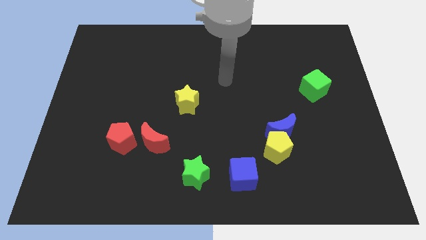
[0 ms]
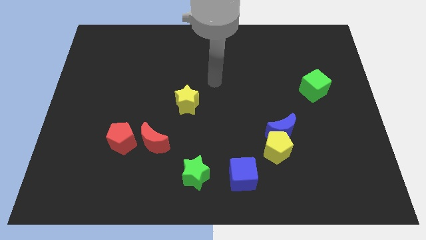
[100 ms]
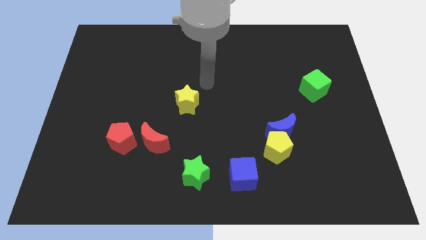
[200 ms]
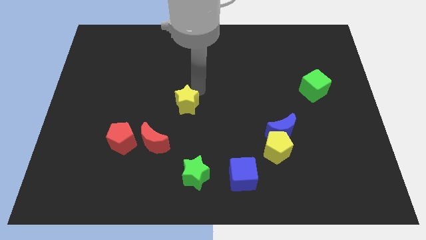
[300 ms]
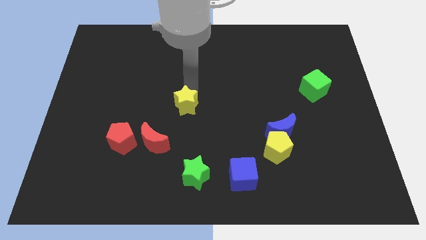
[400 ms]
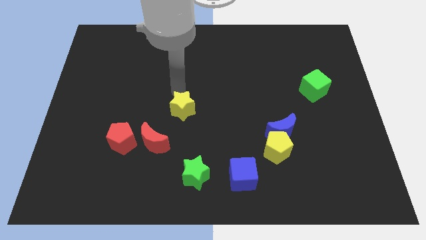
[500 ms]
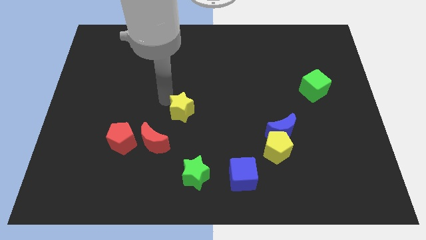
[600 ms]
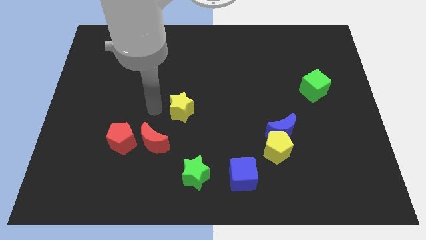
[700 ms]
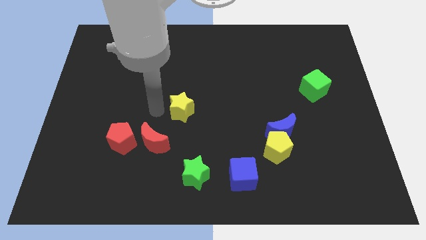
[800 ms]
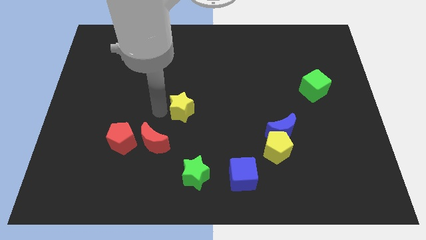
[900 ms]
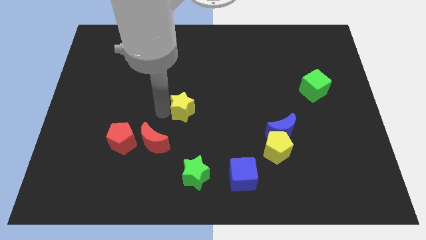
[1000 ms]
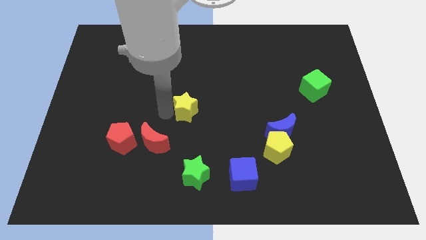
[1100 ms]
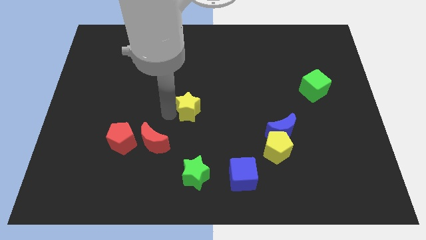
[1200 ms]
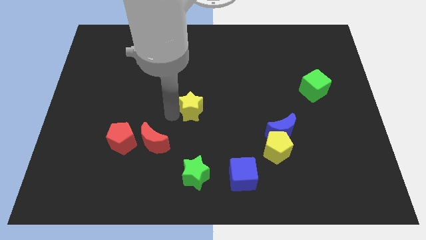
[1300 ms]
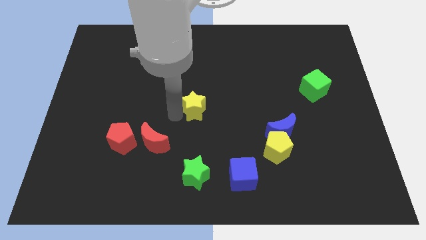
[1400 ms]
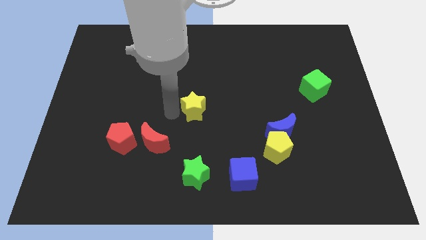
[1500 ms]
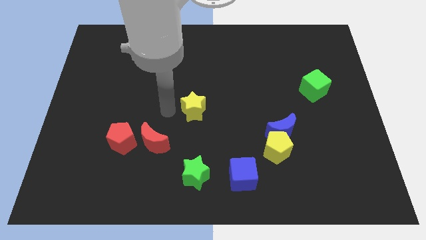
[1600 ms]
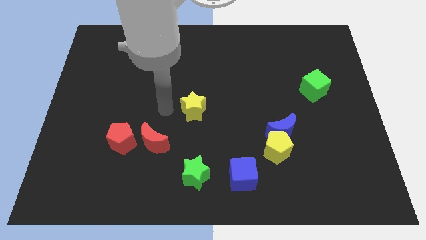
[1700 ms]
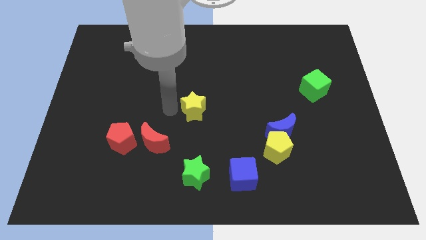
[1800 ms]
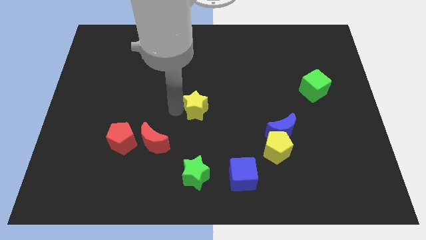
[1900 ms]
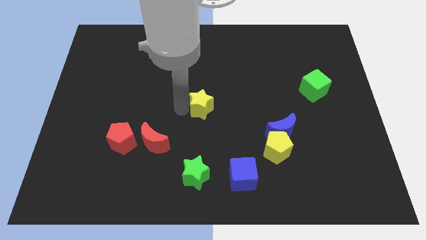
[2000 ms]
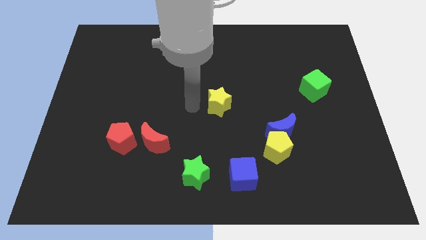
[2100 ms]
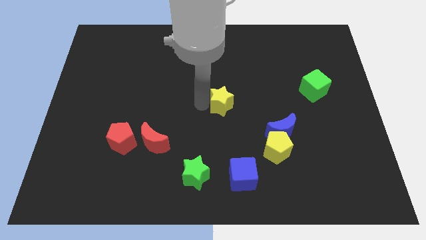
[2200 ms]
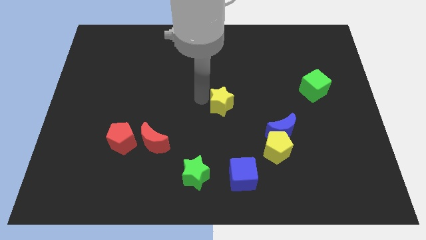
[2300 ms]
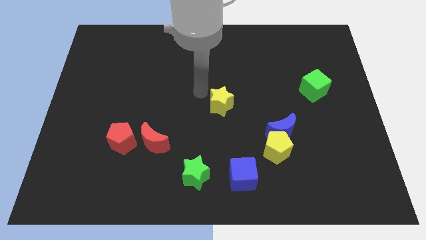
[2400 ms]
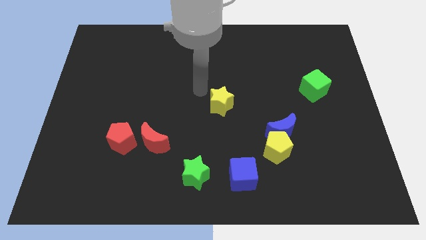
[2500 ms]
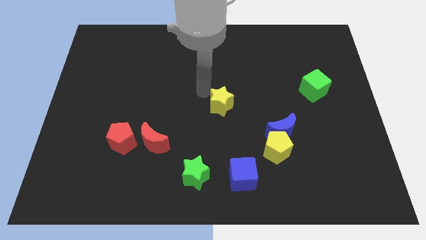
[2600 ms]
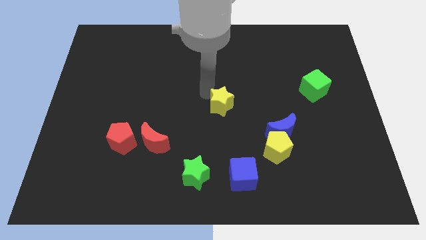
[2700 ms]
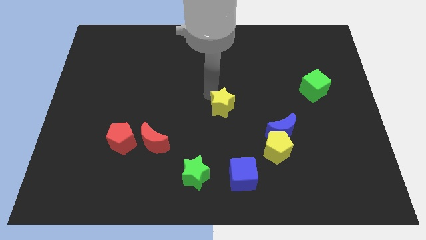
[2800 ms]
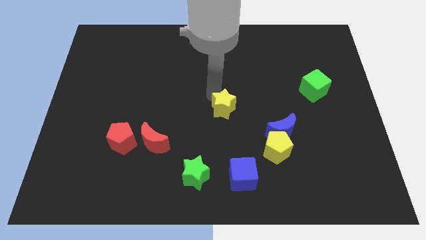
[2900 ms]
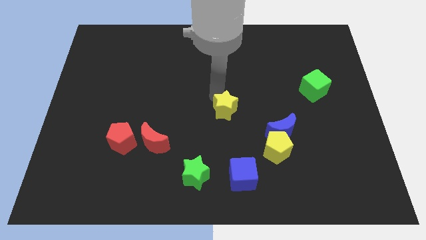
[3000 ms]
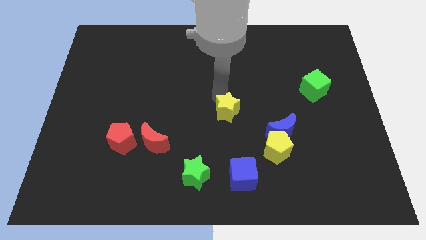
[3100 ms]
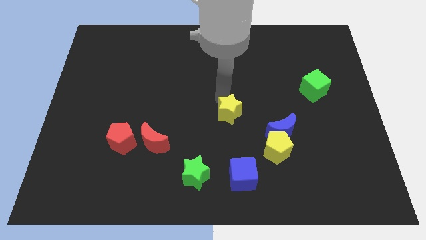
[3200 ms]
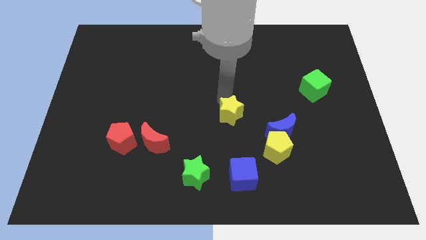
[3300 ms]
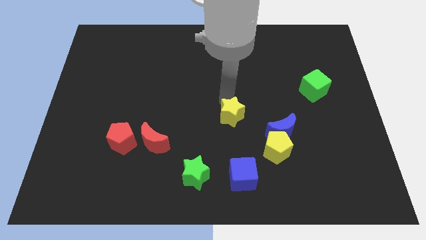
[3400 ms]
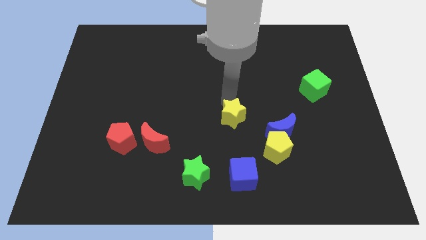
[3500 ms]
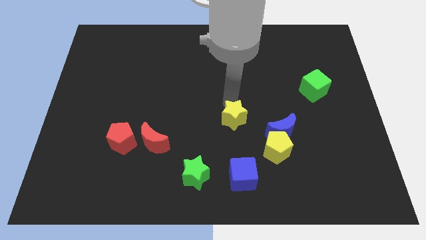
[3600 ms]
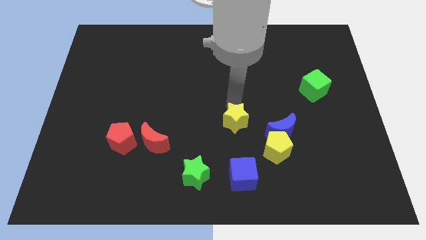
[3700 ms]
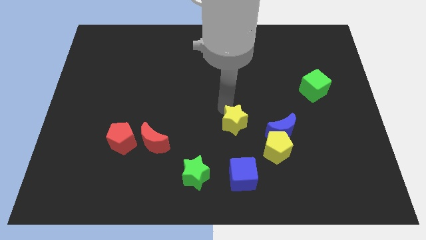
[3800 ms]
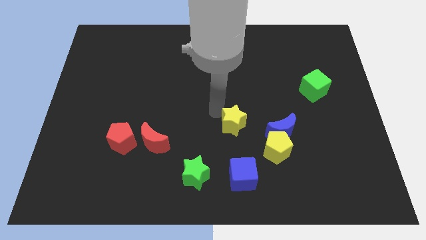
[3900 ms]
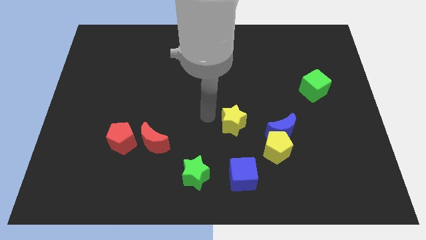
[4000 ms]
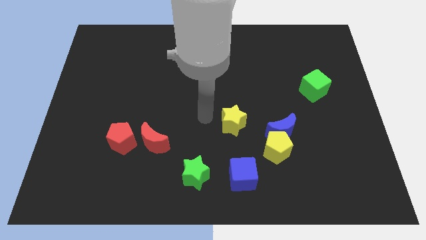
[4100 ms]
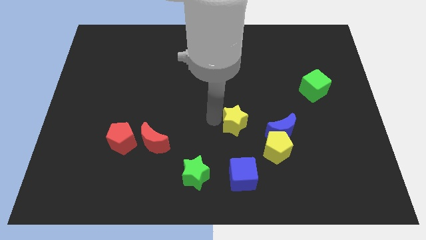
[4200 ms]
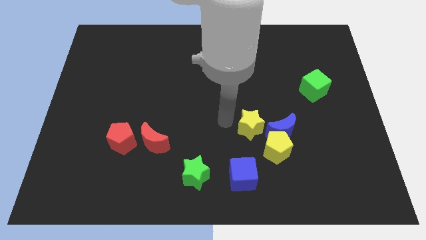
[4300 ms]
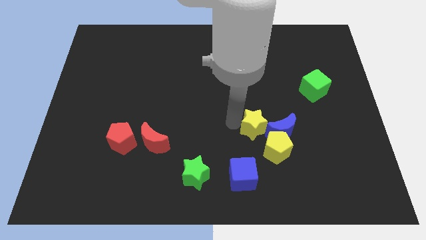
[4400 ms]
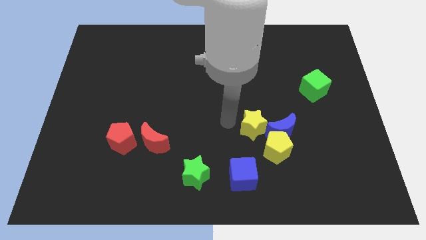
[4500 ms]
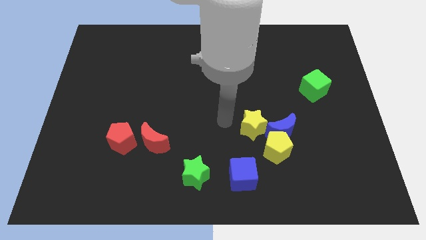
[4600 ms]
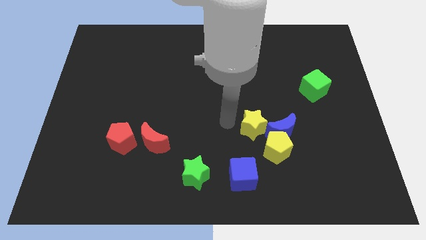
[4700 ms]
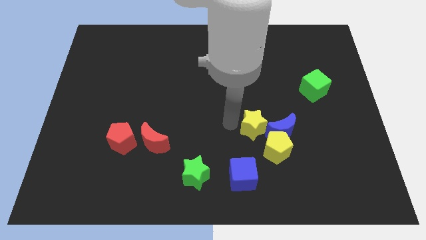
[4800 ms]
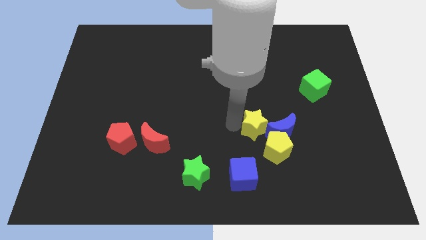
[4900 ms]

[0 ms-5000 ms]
put the yellow star towards the blue moon

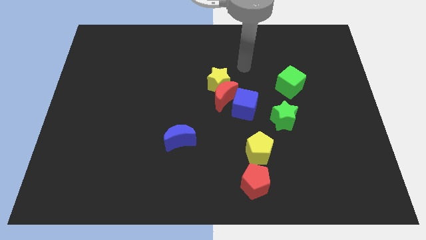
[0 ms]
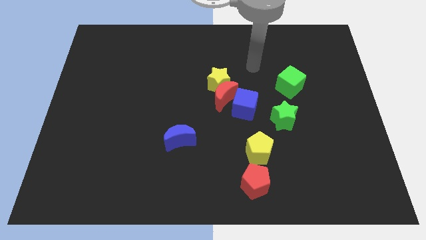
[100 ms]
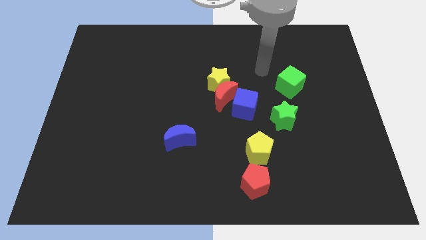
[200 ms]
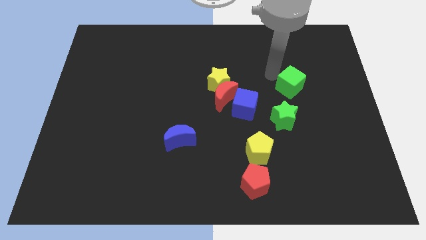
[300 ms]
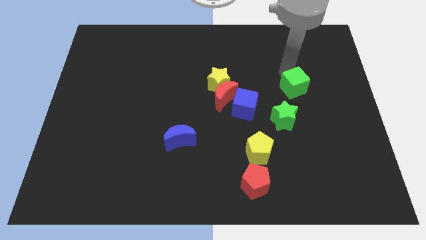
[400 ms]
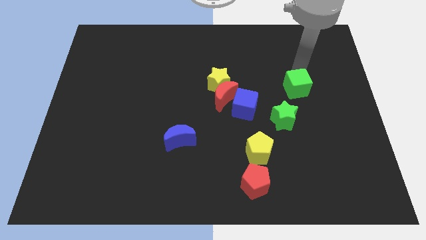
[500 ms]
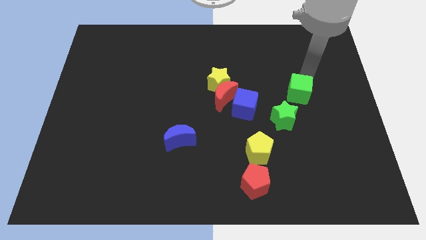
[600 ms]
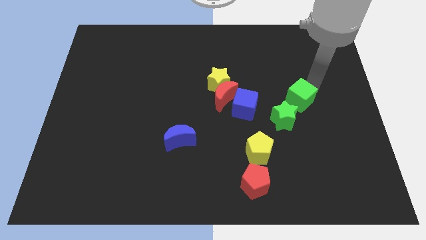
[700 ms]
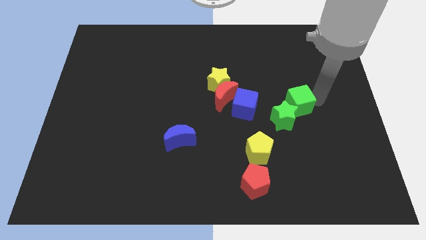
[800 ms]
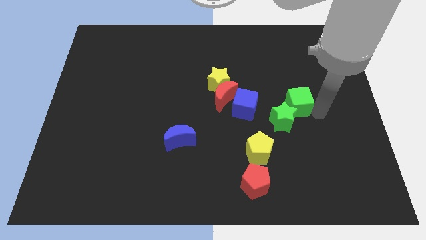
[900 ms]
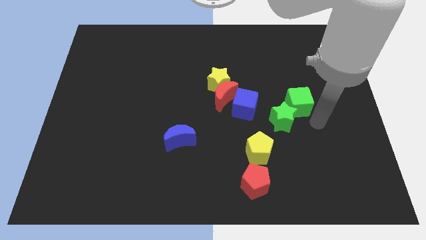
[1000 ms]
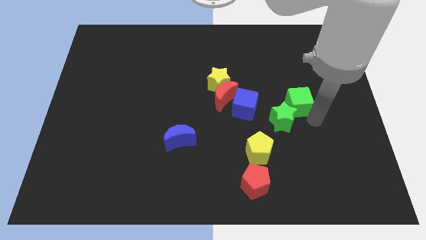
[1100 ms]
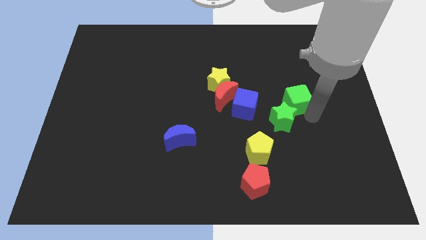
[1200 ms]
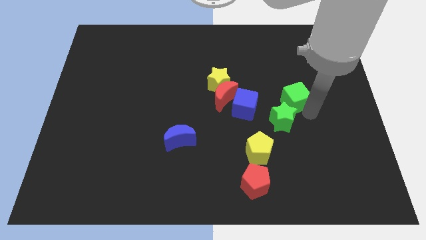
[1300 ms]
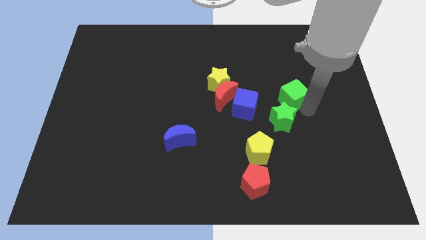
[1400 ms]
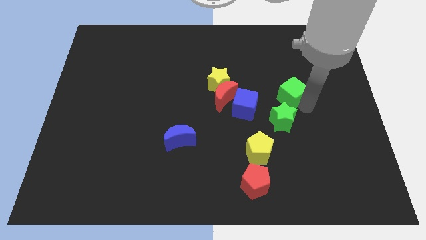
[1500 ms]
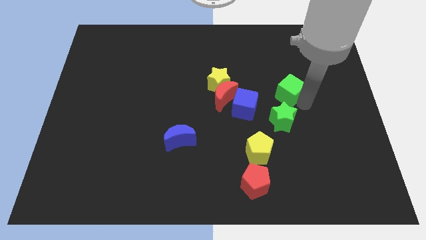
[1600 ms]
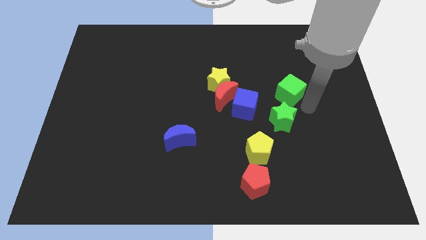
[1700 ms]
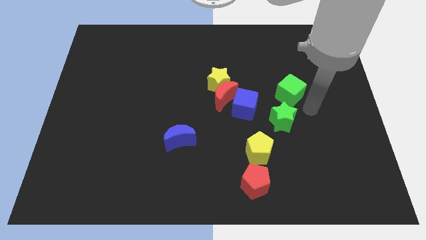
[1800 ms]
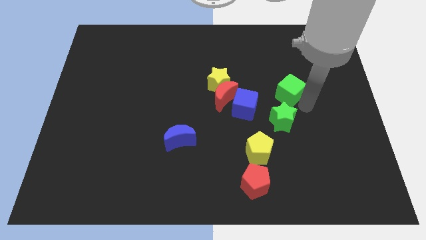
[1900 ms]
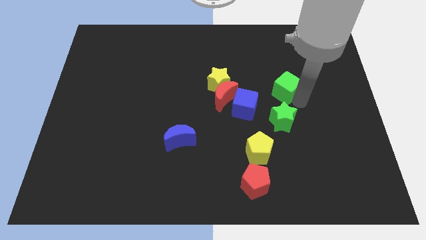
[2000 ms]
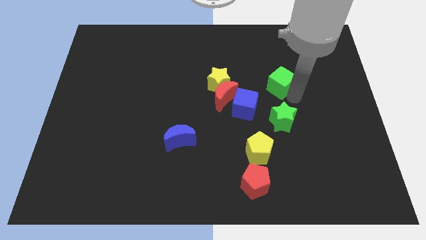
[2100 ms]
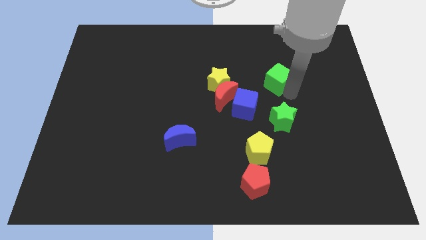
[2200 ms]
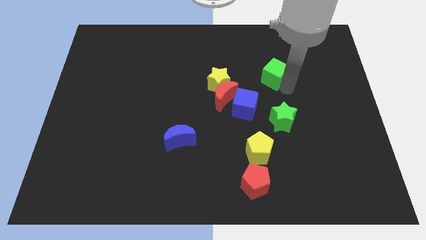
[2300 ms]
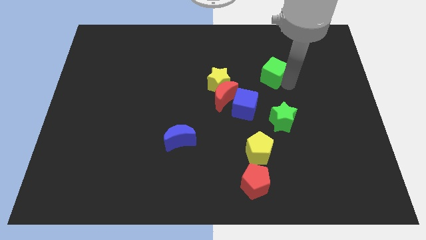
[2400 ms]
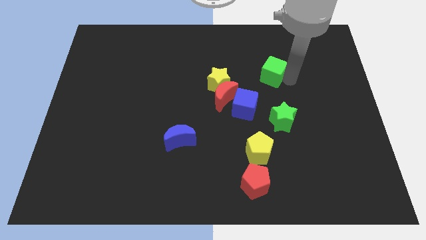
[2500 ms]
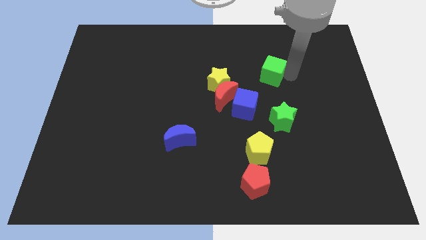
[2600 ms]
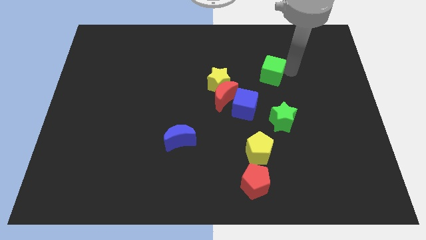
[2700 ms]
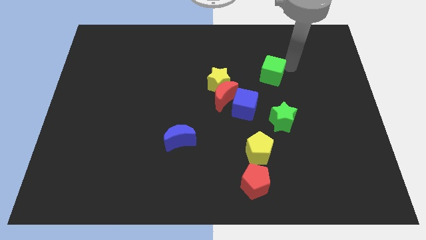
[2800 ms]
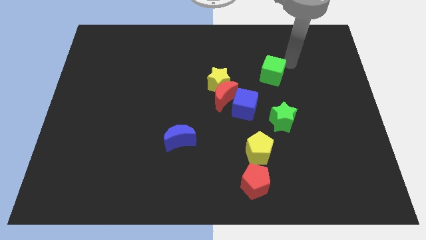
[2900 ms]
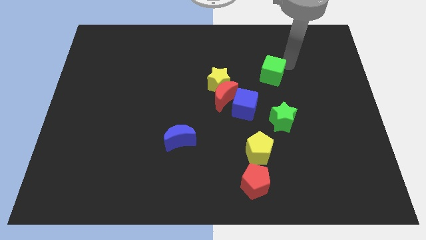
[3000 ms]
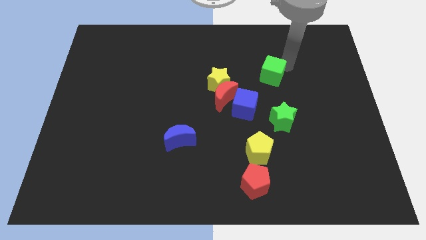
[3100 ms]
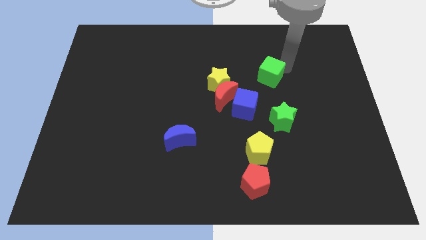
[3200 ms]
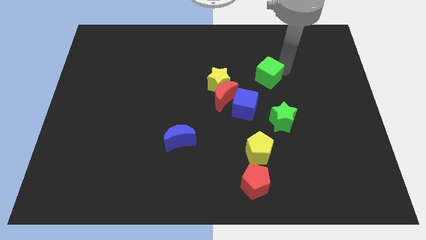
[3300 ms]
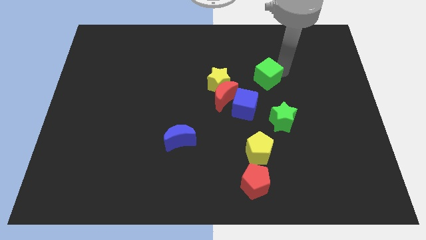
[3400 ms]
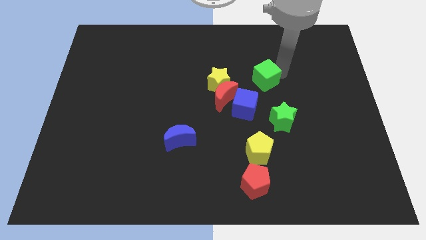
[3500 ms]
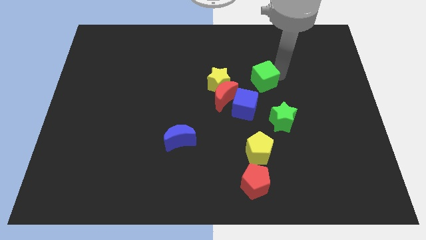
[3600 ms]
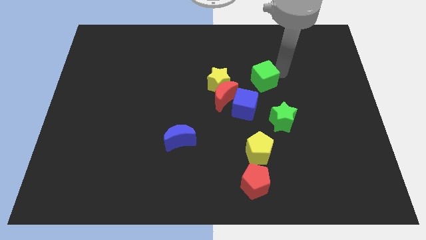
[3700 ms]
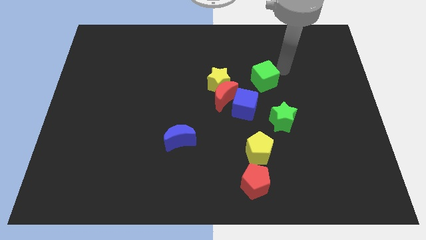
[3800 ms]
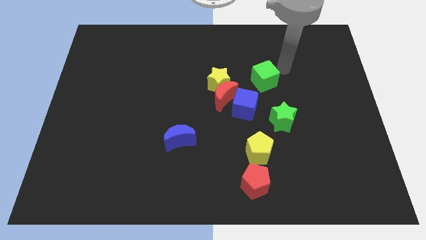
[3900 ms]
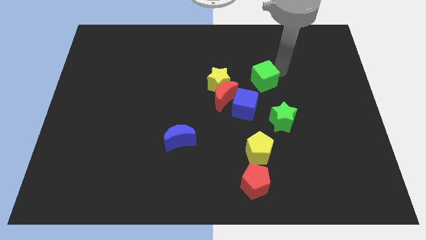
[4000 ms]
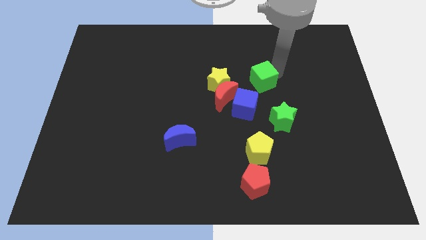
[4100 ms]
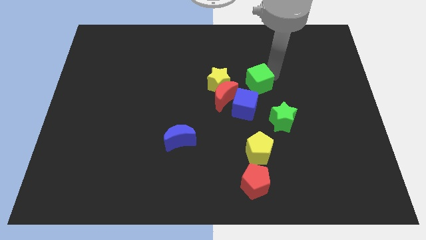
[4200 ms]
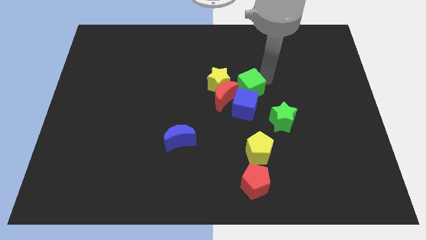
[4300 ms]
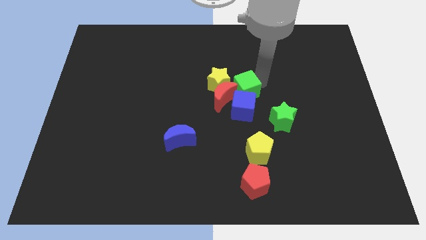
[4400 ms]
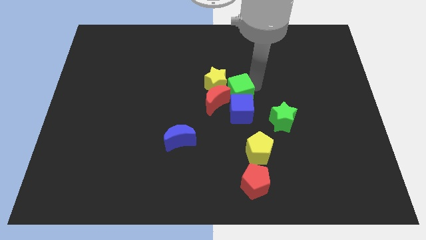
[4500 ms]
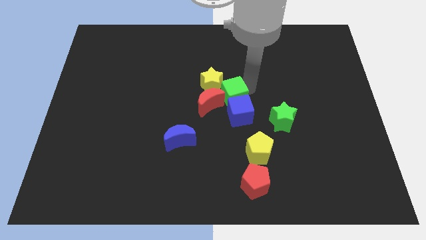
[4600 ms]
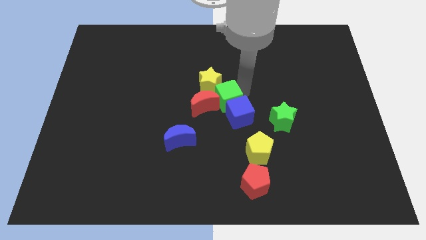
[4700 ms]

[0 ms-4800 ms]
push the green cube close to the red moon
